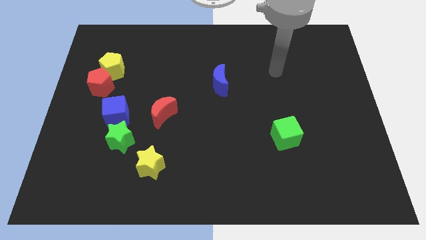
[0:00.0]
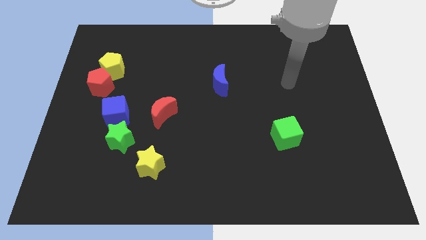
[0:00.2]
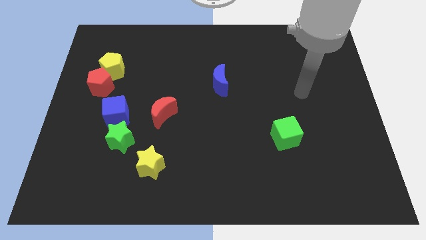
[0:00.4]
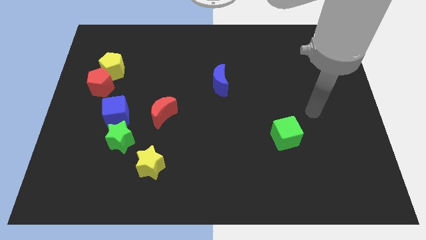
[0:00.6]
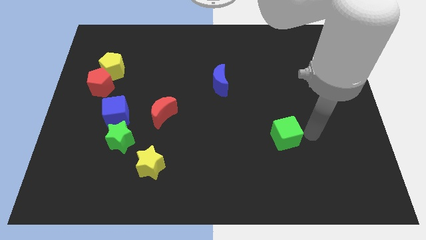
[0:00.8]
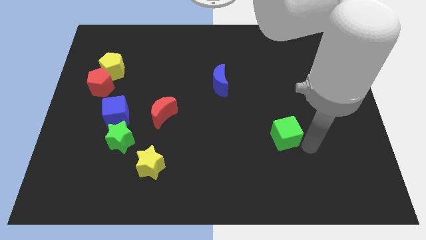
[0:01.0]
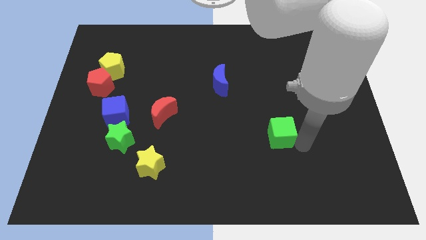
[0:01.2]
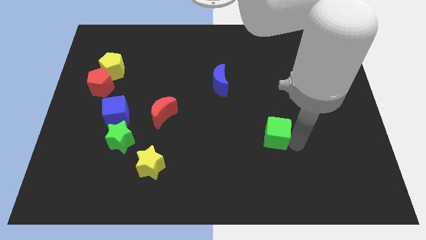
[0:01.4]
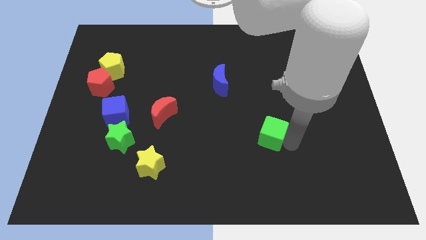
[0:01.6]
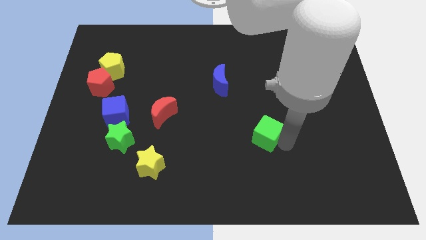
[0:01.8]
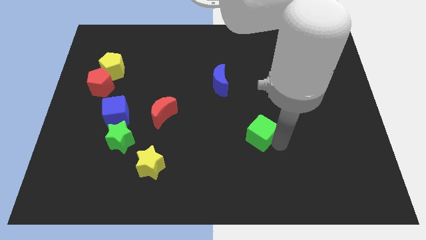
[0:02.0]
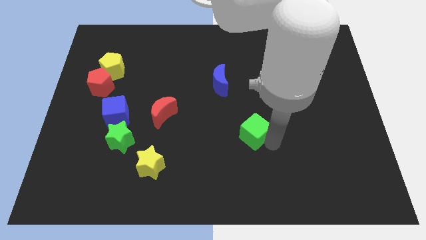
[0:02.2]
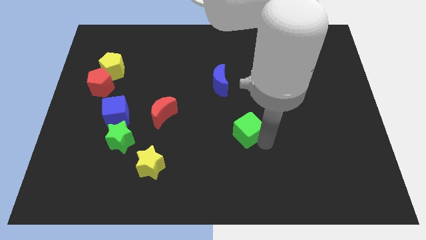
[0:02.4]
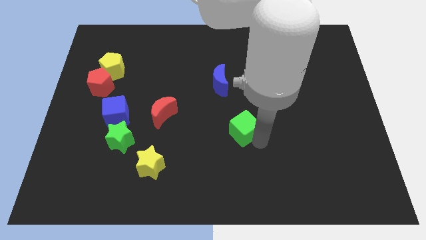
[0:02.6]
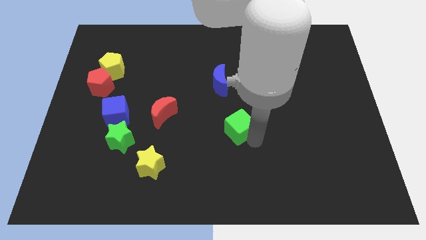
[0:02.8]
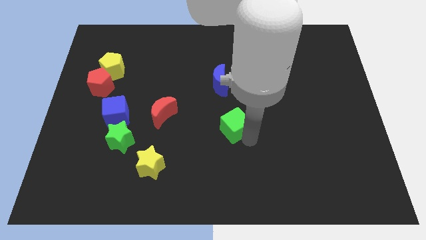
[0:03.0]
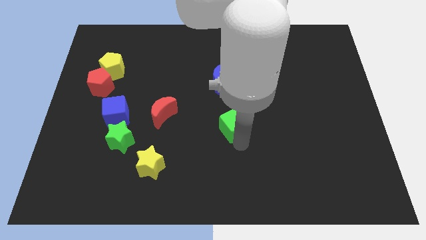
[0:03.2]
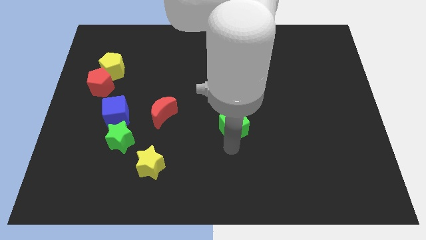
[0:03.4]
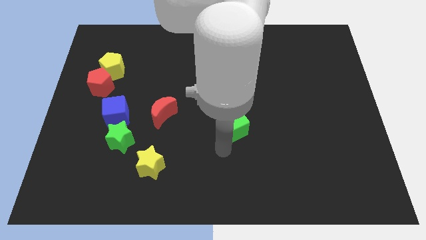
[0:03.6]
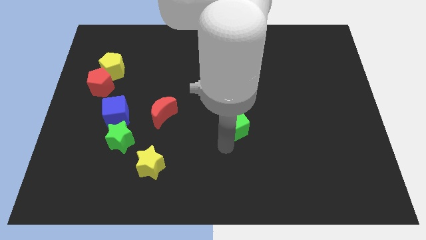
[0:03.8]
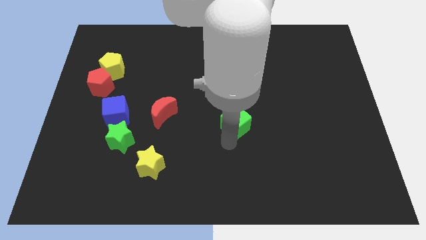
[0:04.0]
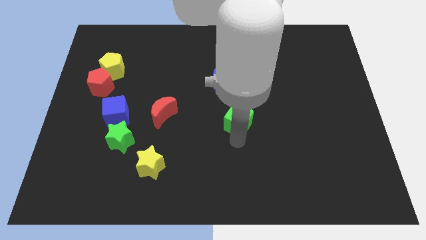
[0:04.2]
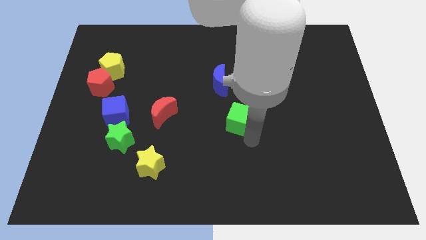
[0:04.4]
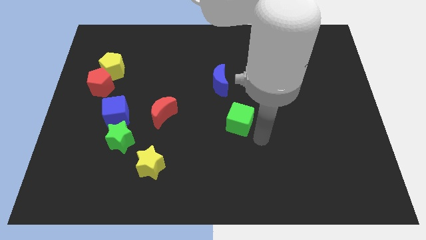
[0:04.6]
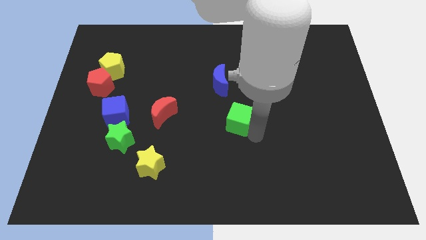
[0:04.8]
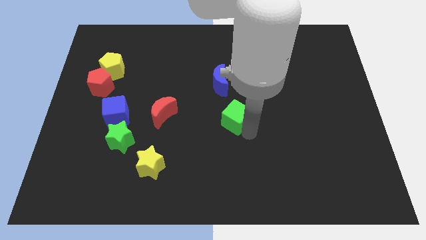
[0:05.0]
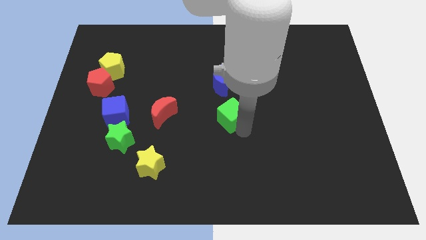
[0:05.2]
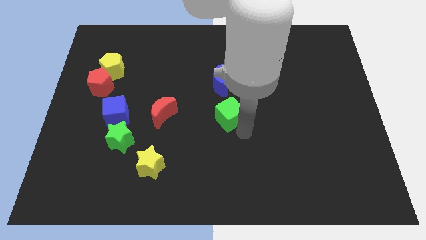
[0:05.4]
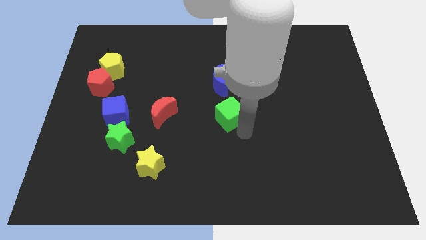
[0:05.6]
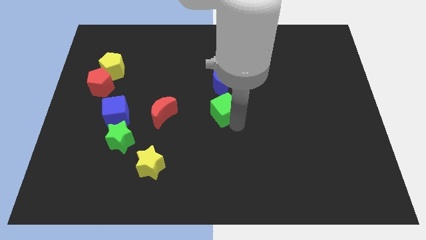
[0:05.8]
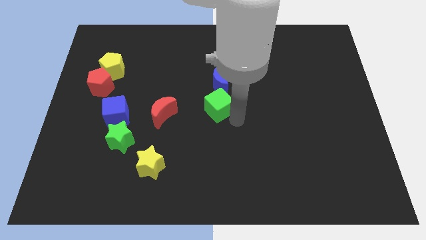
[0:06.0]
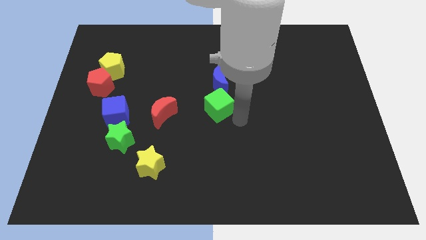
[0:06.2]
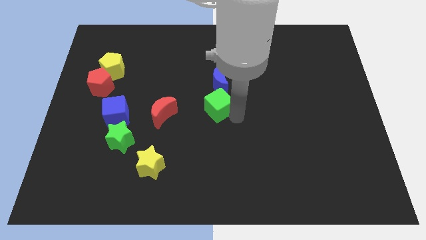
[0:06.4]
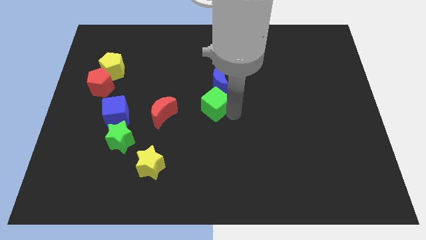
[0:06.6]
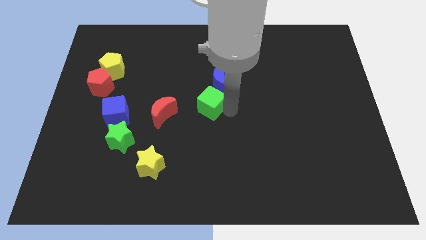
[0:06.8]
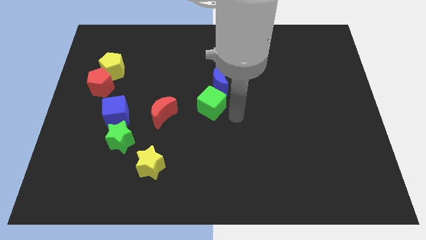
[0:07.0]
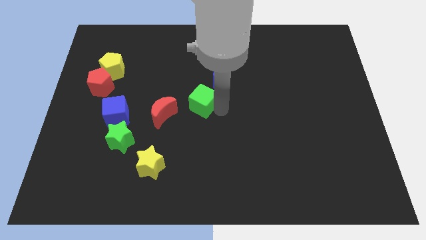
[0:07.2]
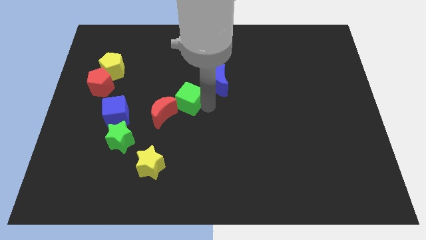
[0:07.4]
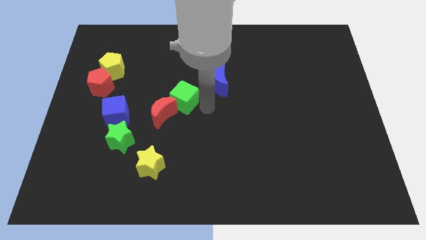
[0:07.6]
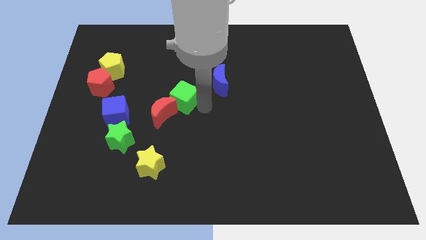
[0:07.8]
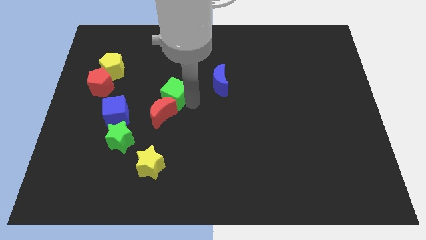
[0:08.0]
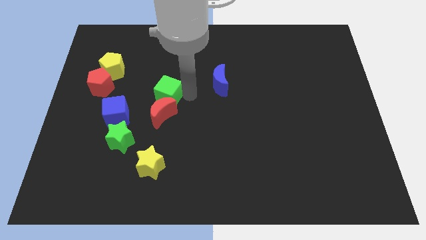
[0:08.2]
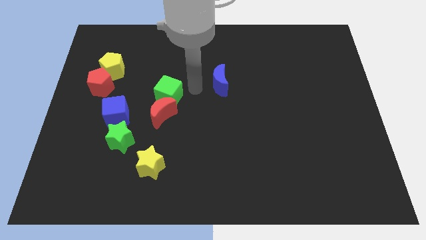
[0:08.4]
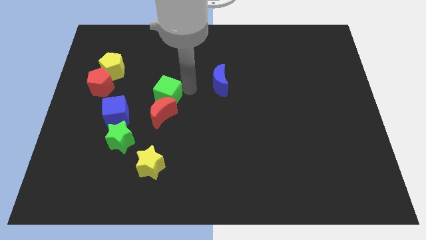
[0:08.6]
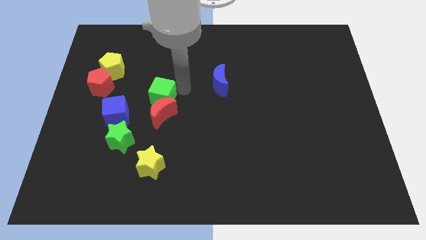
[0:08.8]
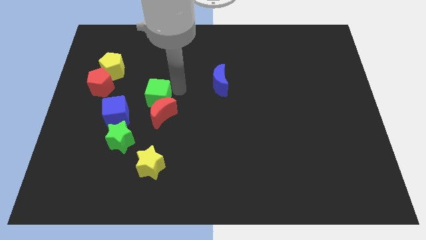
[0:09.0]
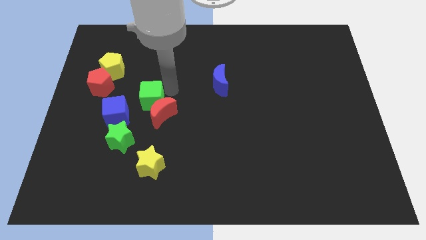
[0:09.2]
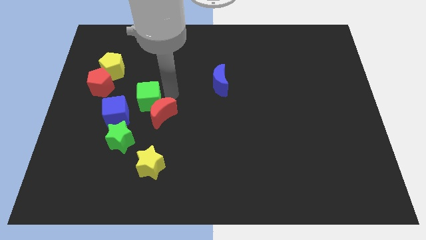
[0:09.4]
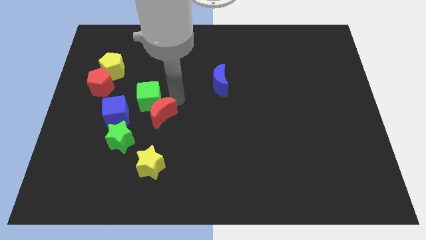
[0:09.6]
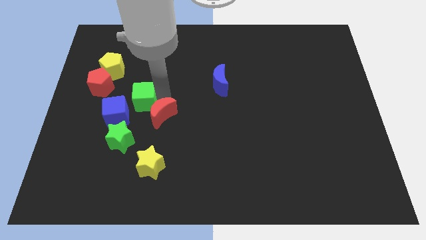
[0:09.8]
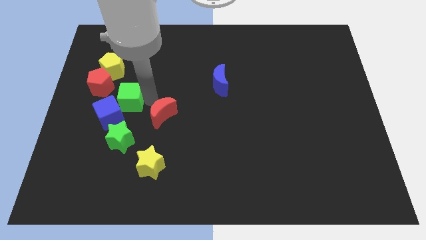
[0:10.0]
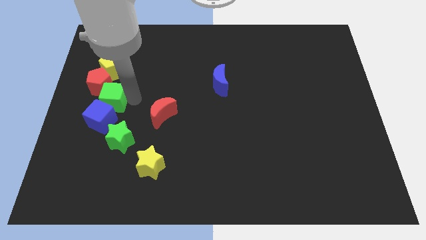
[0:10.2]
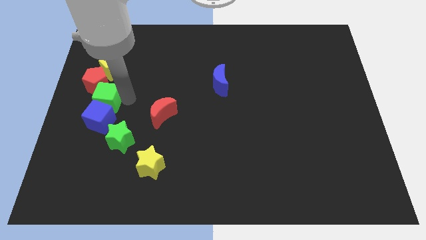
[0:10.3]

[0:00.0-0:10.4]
put the green cube to the center left

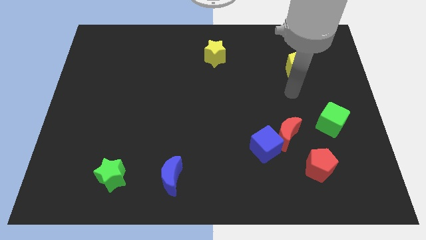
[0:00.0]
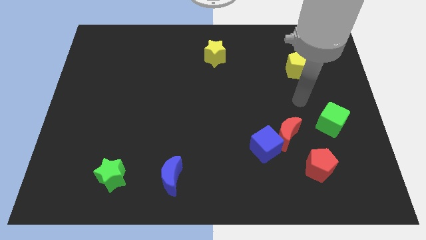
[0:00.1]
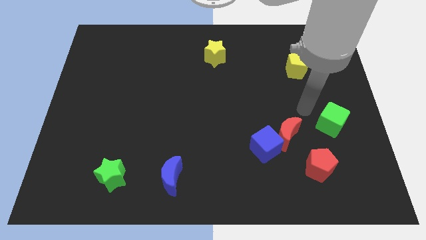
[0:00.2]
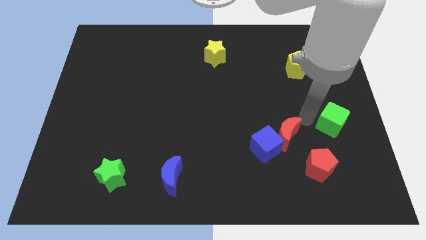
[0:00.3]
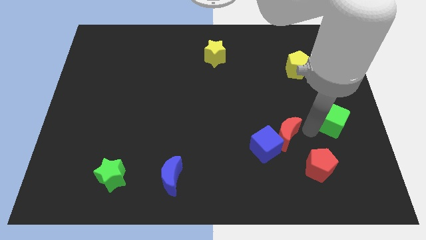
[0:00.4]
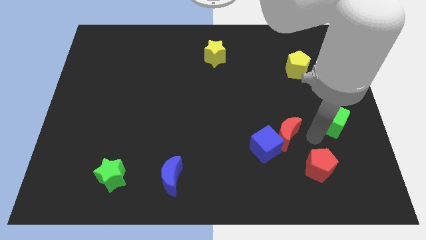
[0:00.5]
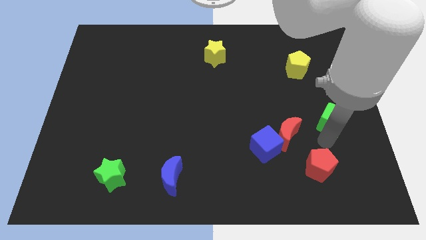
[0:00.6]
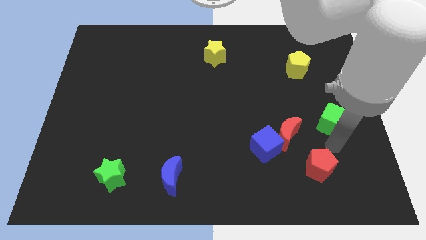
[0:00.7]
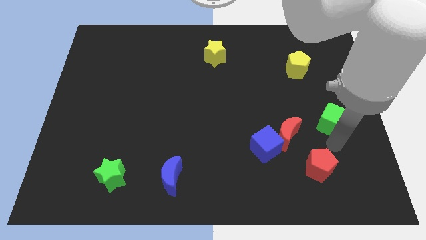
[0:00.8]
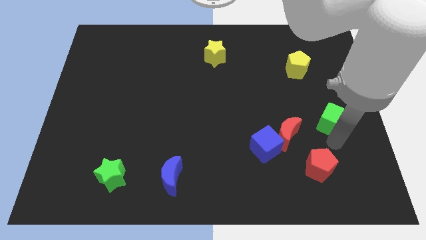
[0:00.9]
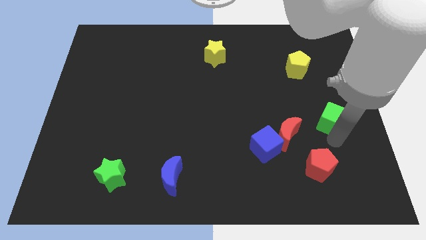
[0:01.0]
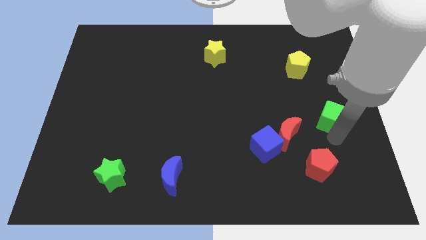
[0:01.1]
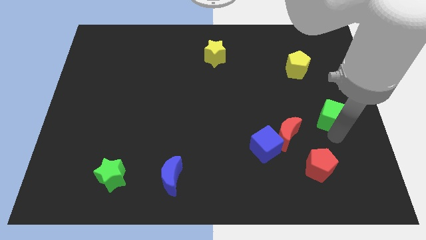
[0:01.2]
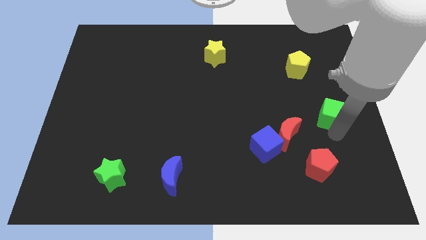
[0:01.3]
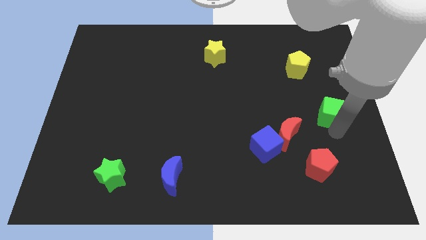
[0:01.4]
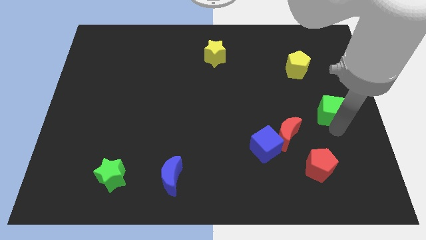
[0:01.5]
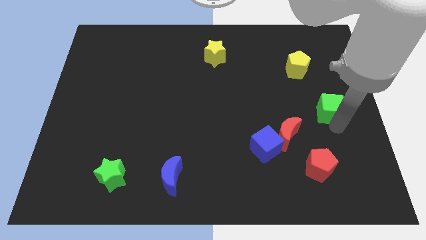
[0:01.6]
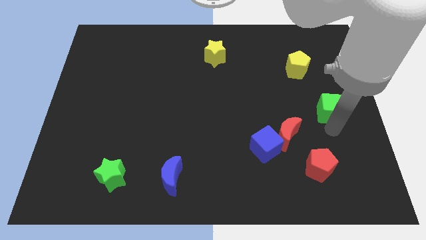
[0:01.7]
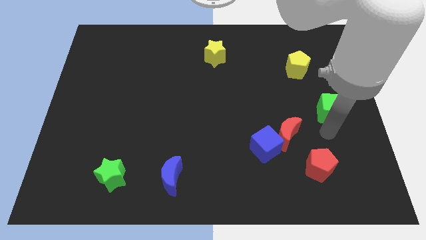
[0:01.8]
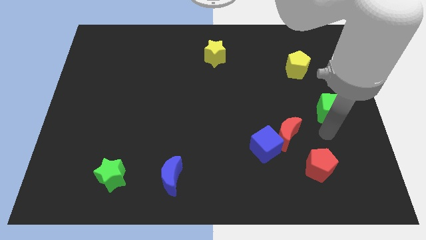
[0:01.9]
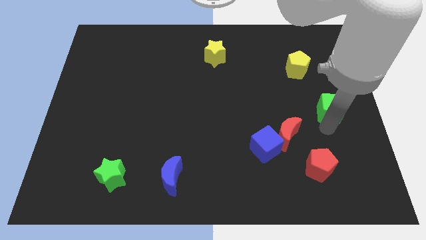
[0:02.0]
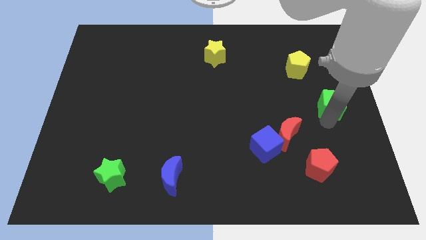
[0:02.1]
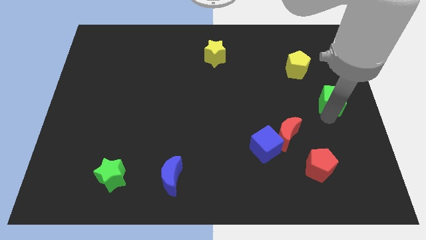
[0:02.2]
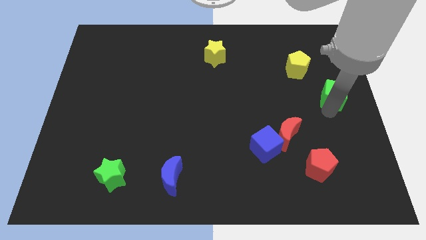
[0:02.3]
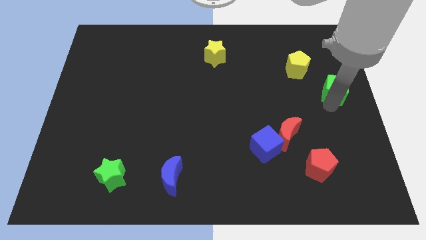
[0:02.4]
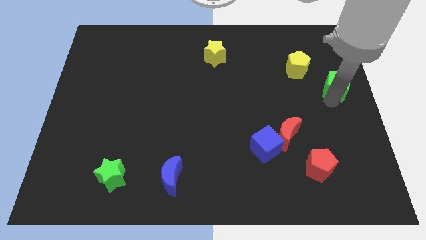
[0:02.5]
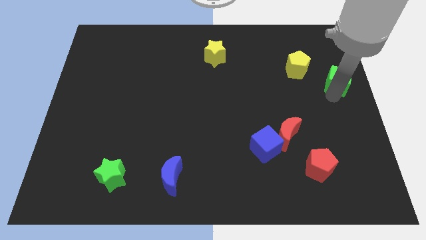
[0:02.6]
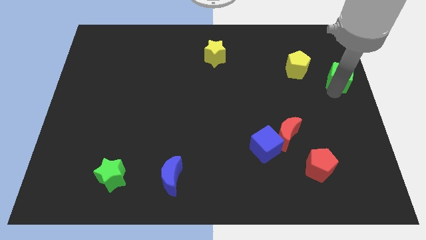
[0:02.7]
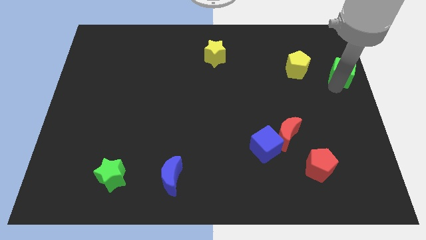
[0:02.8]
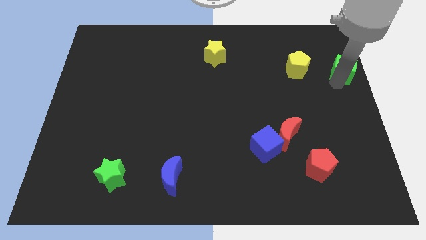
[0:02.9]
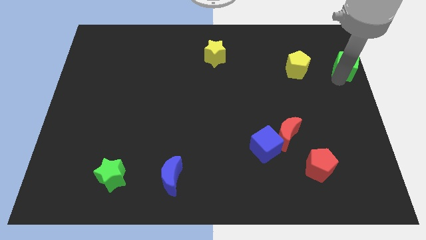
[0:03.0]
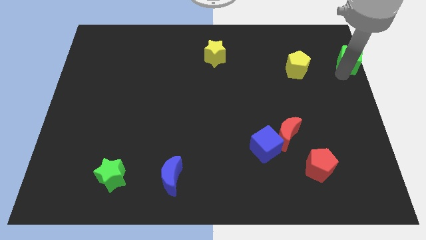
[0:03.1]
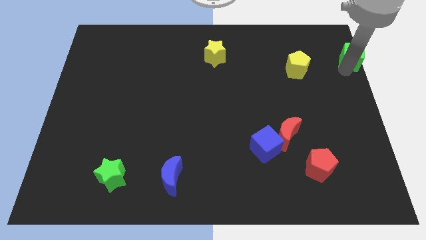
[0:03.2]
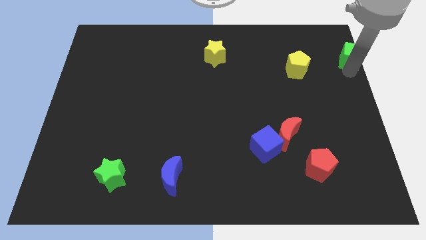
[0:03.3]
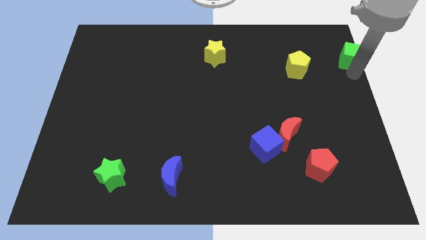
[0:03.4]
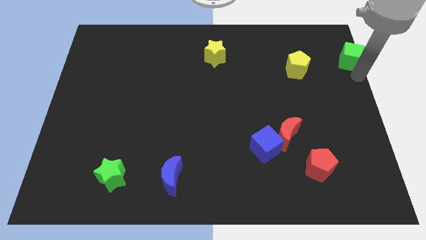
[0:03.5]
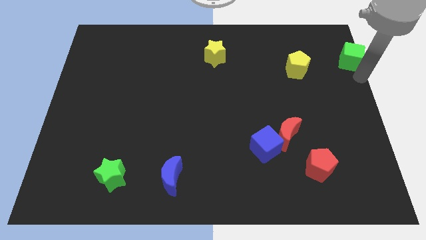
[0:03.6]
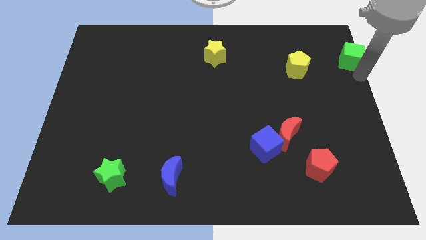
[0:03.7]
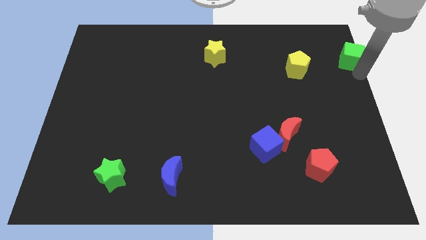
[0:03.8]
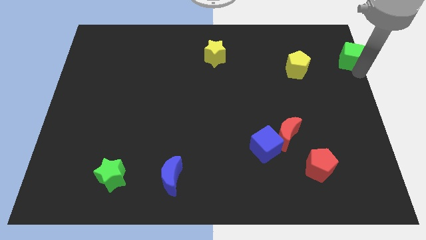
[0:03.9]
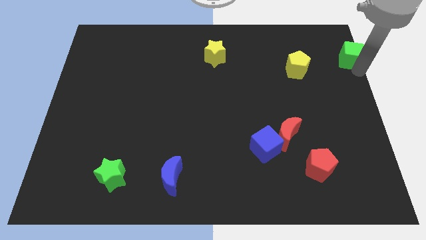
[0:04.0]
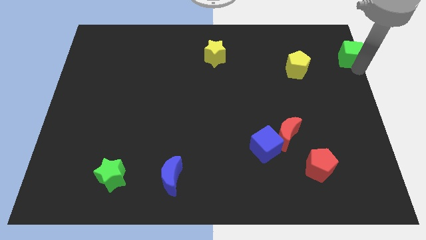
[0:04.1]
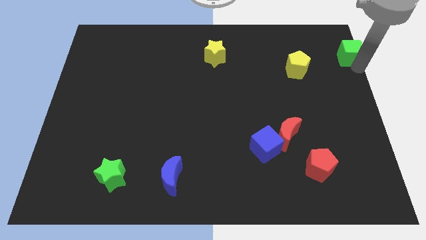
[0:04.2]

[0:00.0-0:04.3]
slide the green cube to the top right corner
